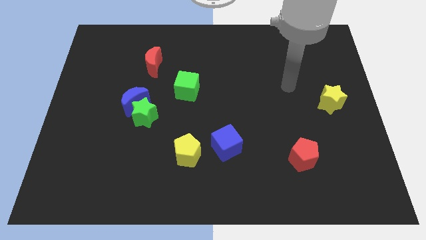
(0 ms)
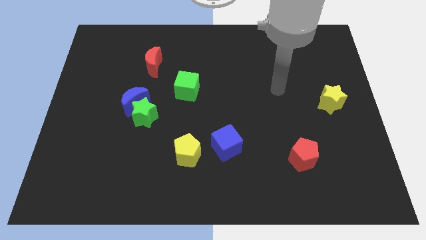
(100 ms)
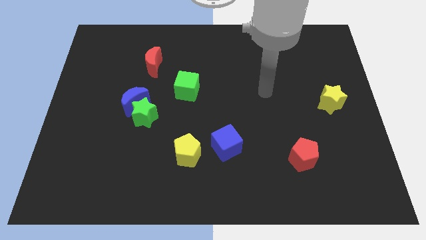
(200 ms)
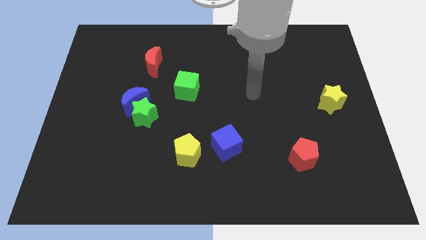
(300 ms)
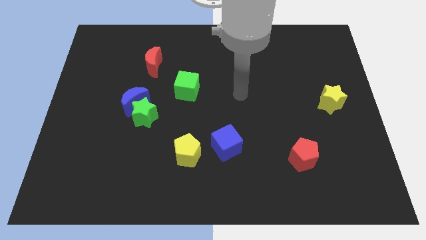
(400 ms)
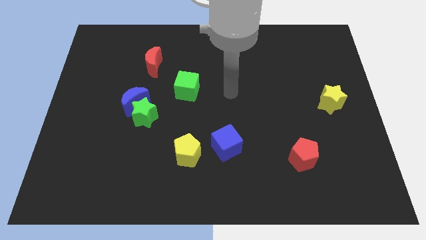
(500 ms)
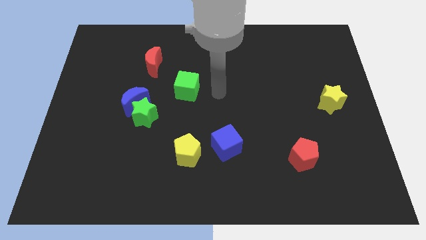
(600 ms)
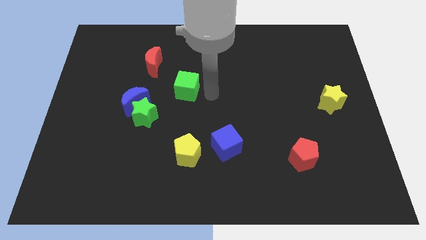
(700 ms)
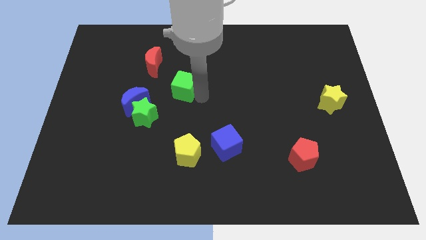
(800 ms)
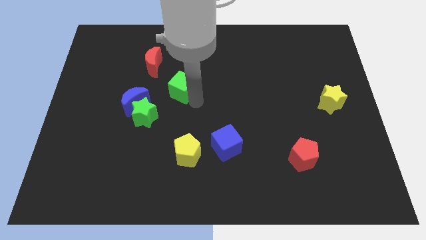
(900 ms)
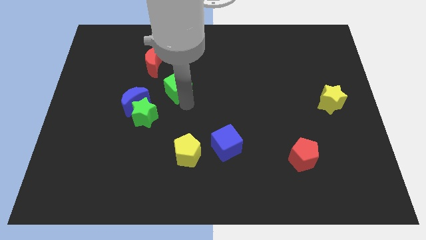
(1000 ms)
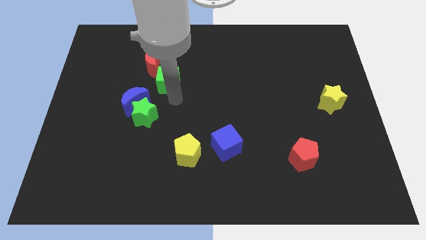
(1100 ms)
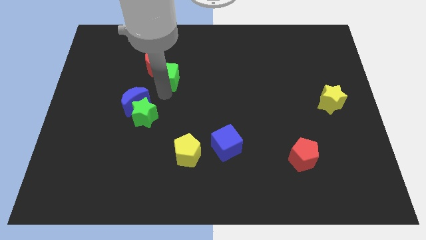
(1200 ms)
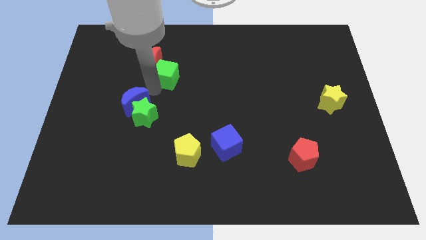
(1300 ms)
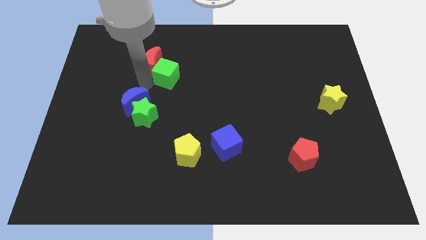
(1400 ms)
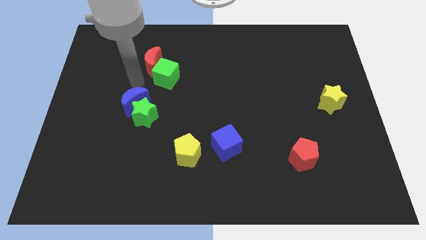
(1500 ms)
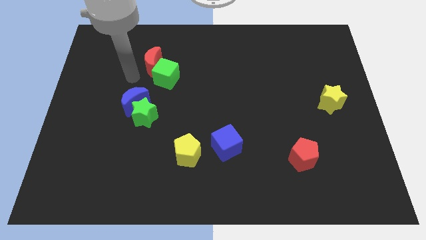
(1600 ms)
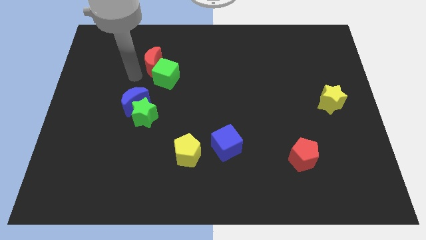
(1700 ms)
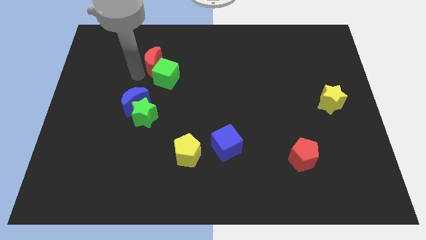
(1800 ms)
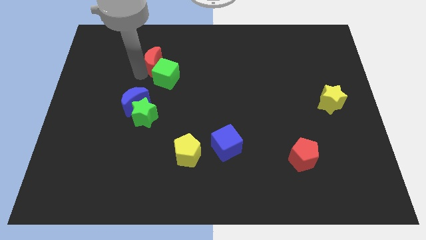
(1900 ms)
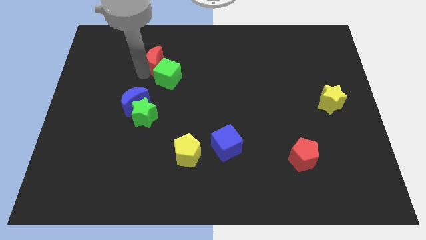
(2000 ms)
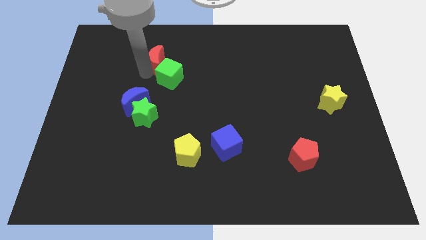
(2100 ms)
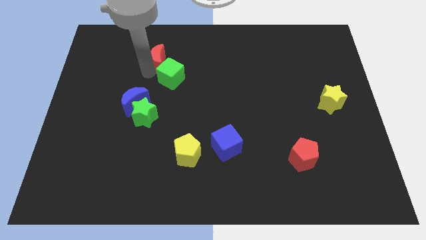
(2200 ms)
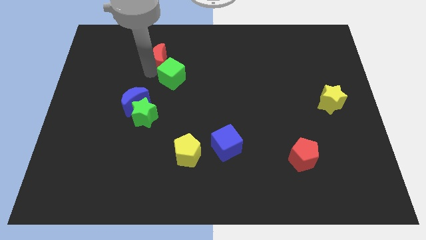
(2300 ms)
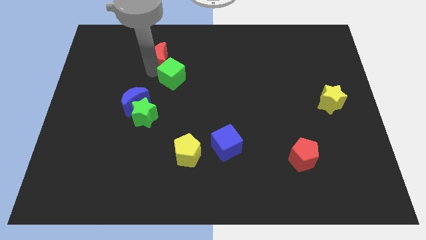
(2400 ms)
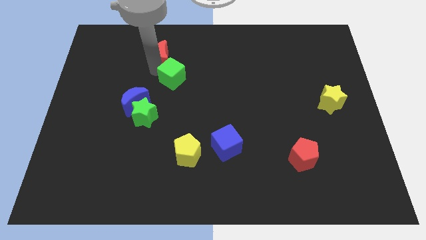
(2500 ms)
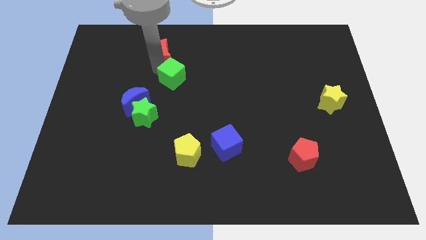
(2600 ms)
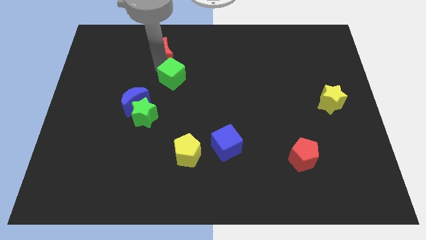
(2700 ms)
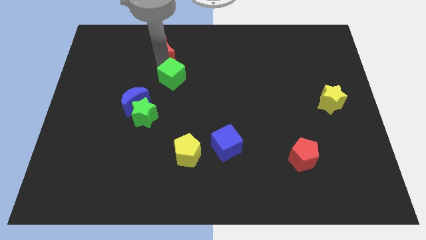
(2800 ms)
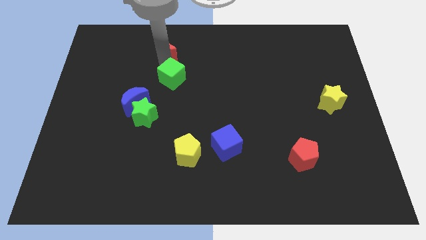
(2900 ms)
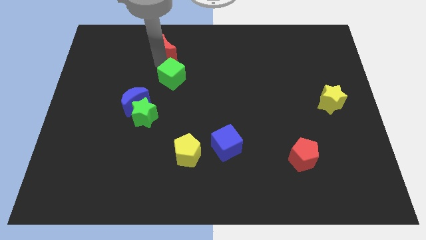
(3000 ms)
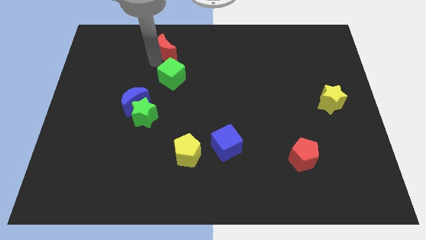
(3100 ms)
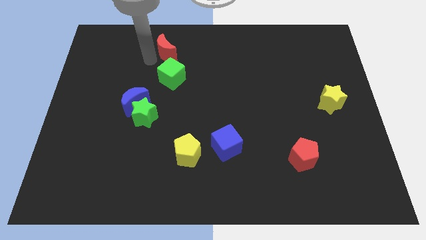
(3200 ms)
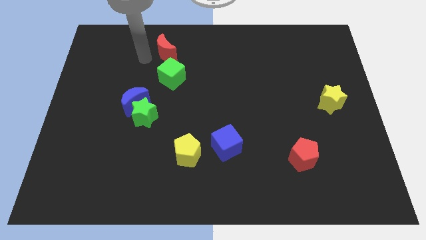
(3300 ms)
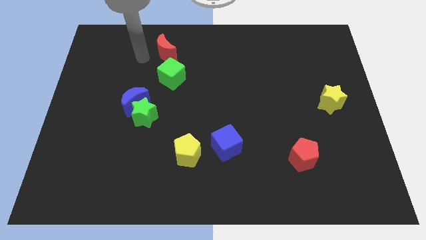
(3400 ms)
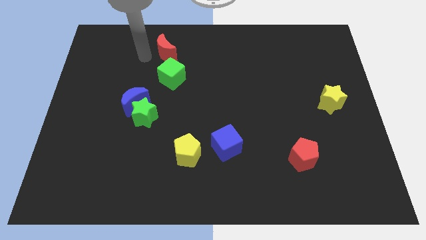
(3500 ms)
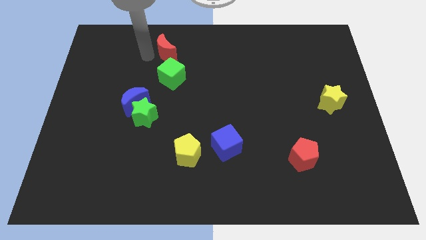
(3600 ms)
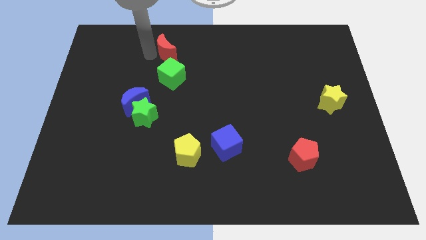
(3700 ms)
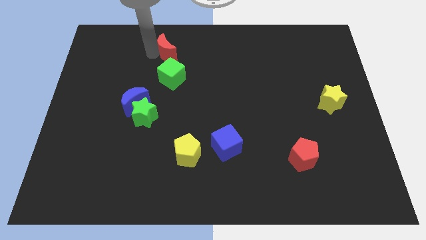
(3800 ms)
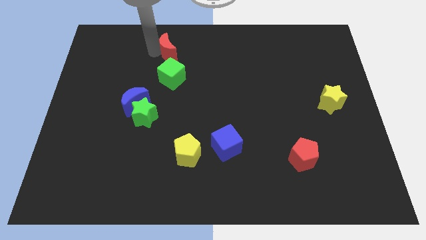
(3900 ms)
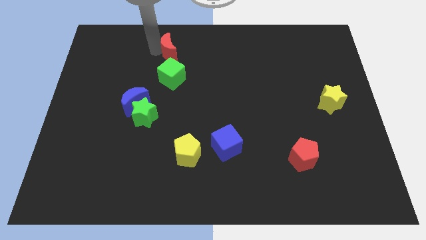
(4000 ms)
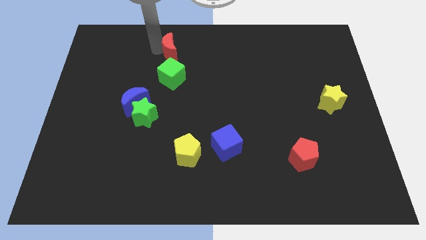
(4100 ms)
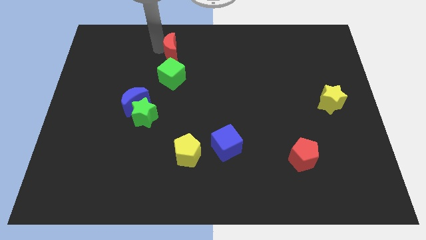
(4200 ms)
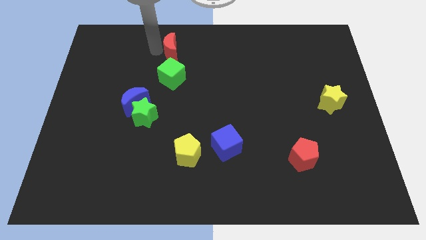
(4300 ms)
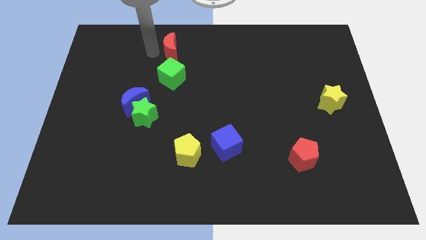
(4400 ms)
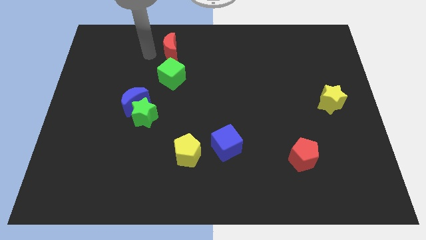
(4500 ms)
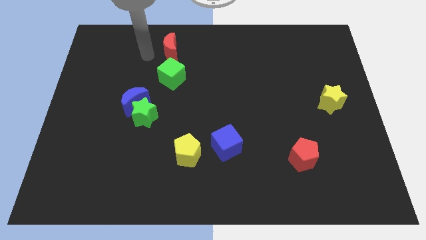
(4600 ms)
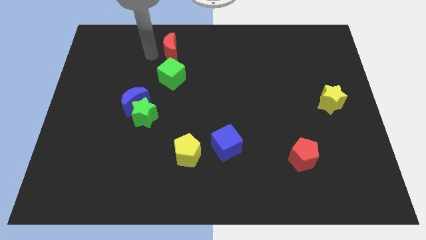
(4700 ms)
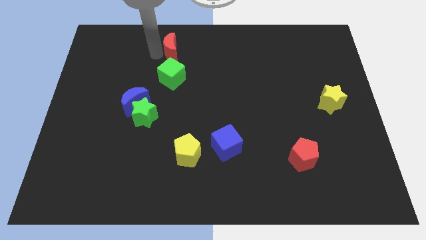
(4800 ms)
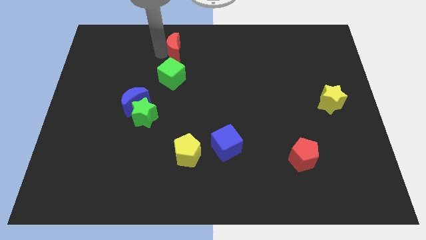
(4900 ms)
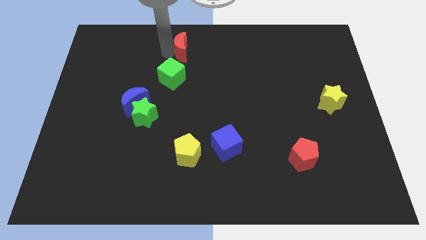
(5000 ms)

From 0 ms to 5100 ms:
move the red moon to the top side

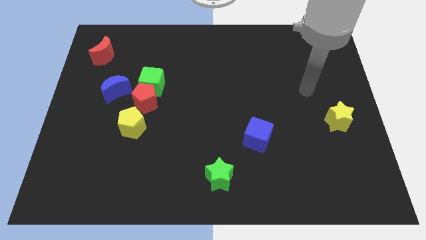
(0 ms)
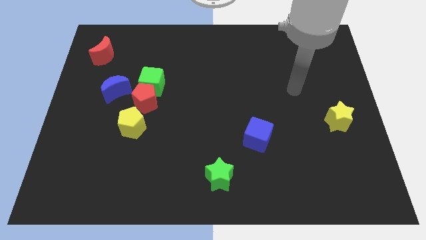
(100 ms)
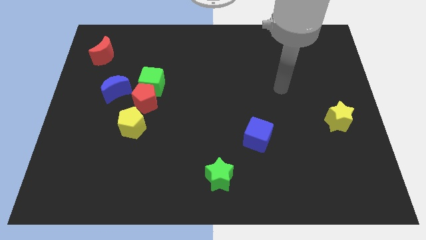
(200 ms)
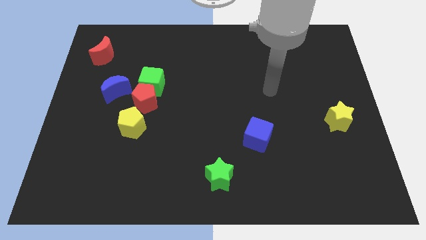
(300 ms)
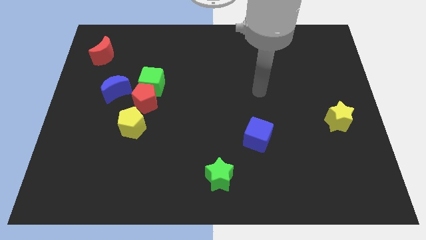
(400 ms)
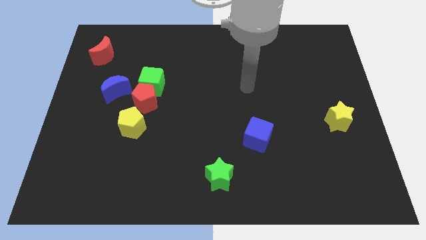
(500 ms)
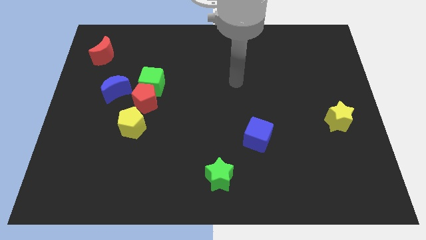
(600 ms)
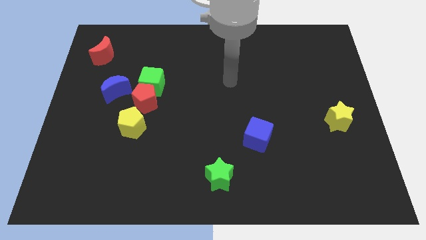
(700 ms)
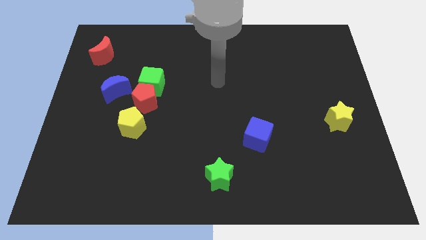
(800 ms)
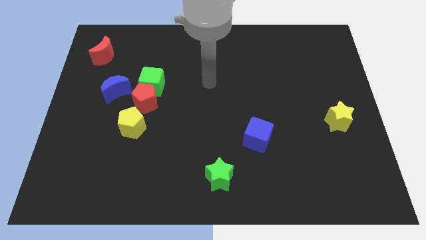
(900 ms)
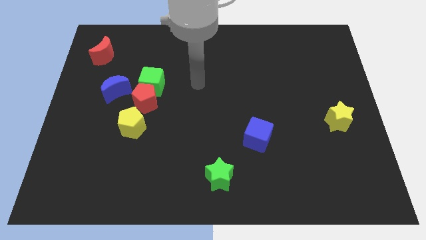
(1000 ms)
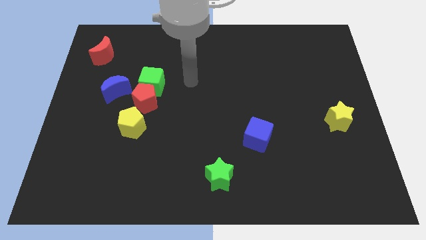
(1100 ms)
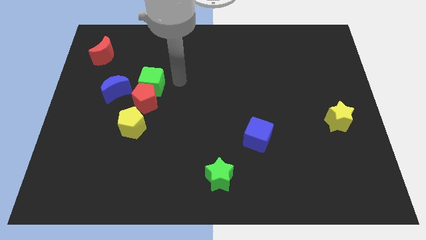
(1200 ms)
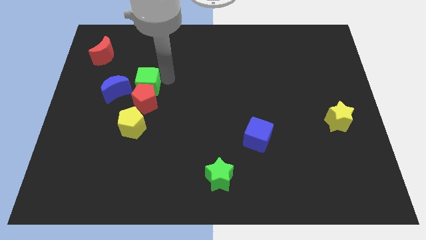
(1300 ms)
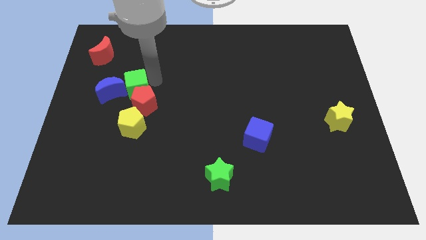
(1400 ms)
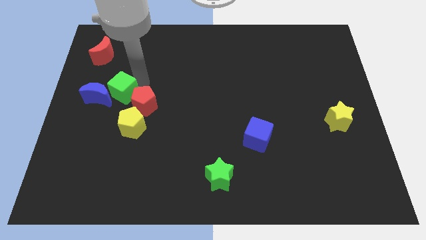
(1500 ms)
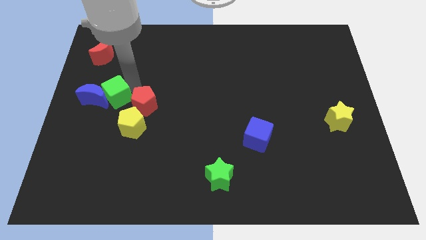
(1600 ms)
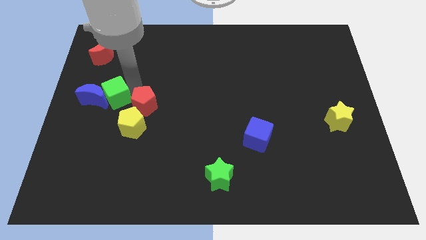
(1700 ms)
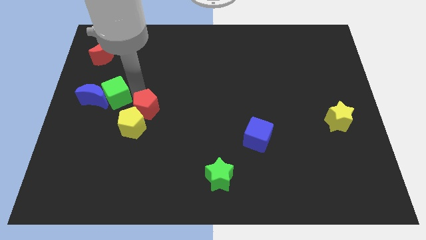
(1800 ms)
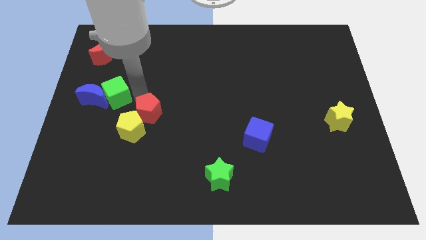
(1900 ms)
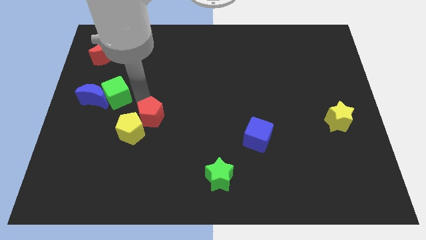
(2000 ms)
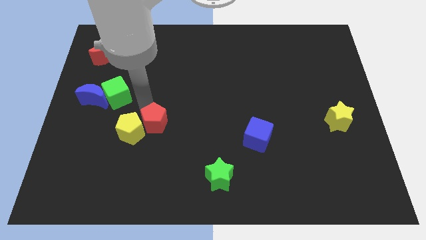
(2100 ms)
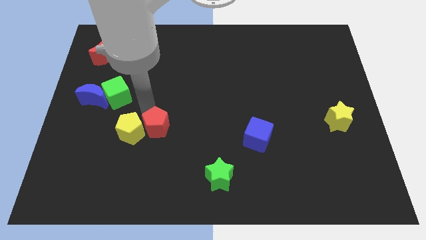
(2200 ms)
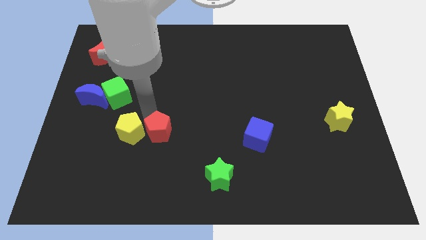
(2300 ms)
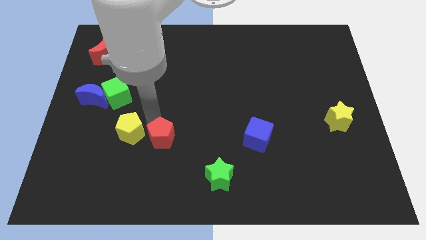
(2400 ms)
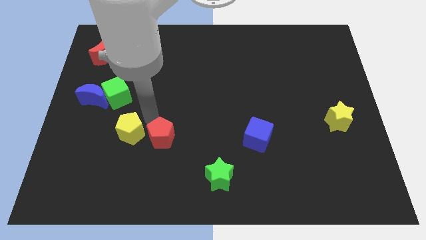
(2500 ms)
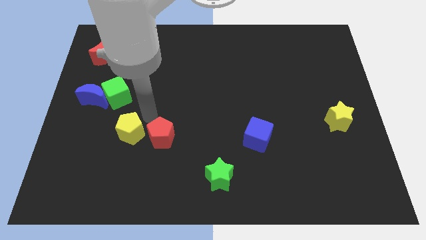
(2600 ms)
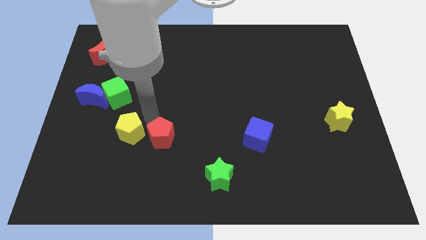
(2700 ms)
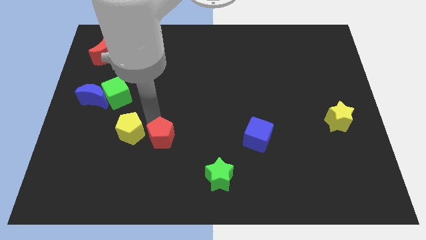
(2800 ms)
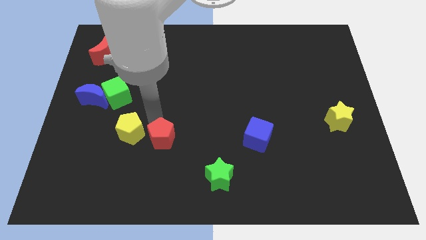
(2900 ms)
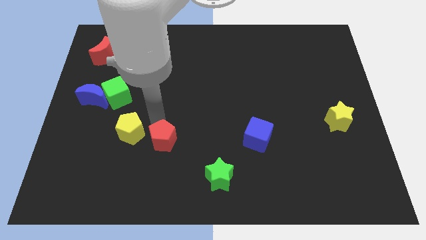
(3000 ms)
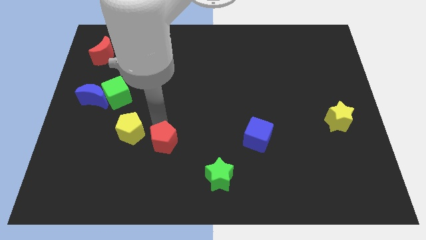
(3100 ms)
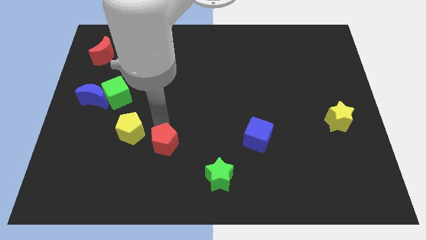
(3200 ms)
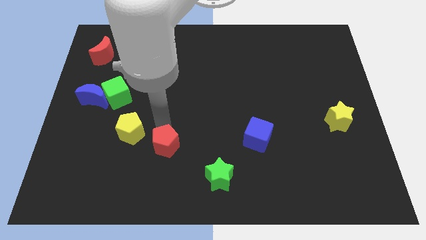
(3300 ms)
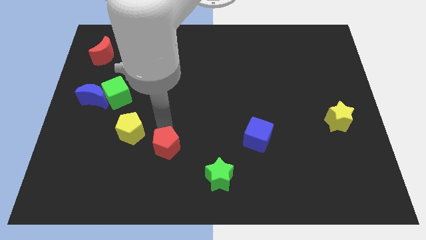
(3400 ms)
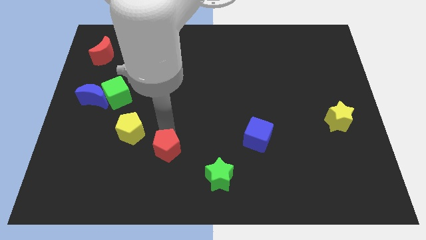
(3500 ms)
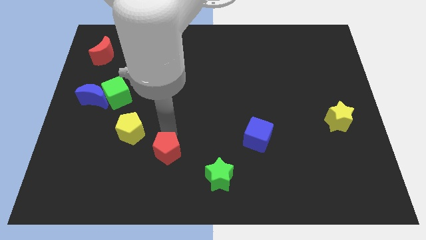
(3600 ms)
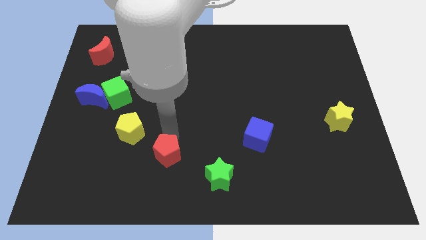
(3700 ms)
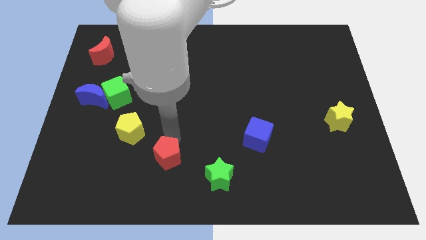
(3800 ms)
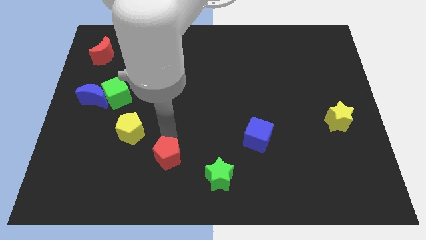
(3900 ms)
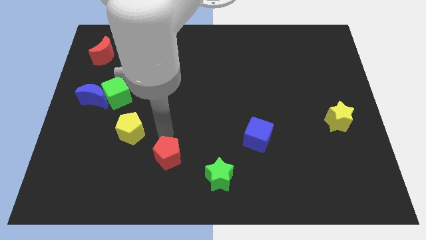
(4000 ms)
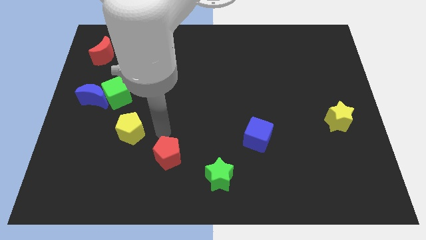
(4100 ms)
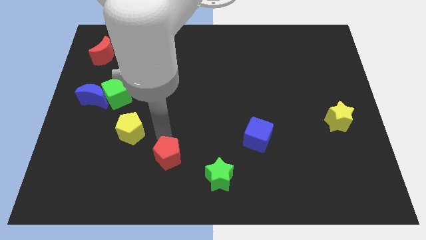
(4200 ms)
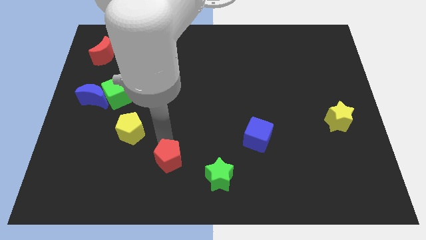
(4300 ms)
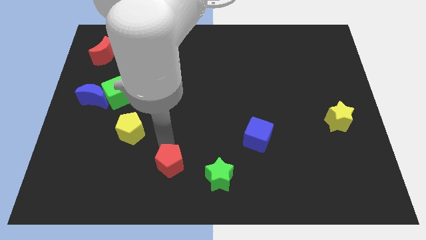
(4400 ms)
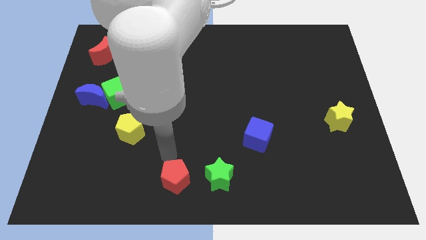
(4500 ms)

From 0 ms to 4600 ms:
move the red pentagon to the bottom
